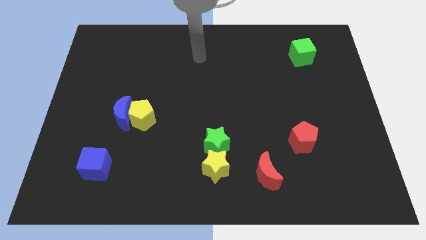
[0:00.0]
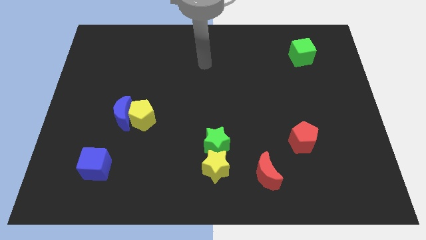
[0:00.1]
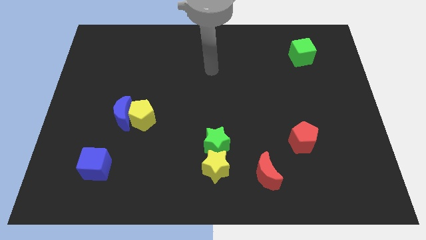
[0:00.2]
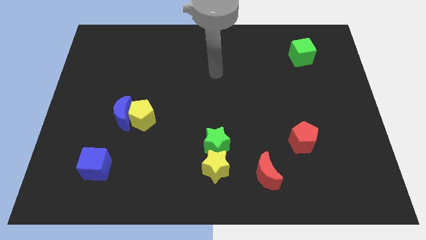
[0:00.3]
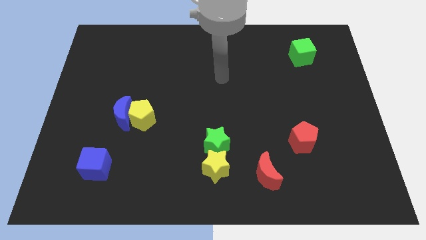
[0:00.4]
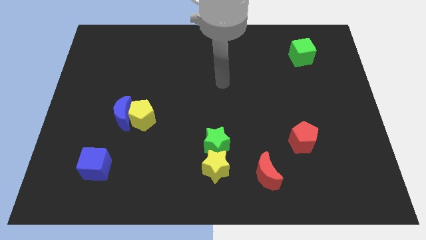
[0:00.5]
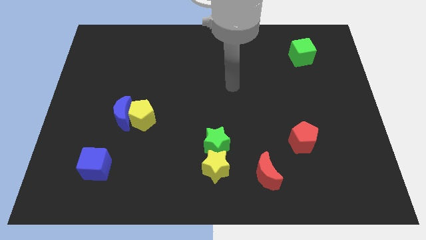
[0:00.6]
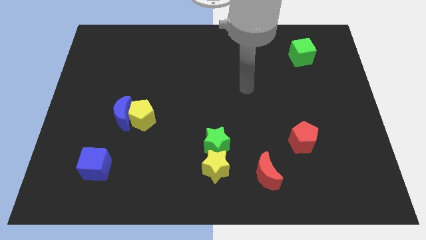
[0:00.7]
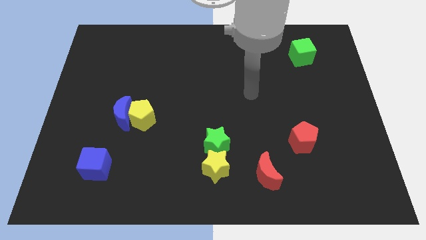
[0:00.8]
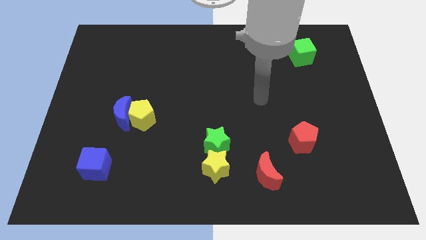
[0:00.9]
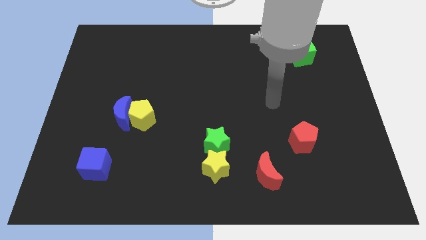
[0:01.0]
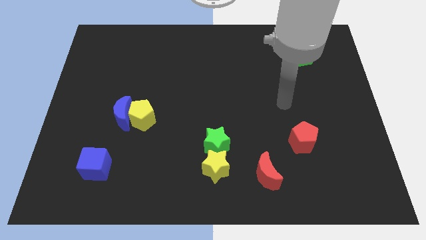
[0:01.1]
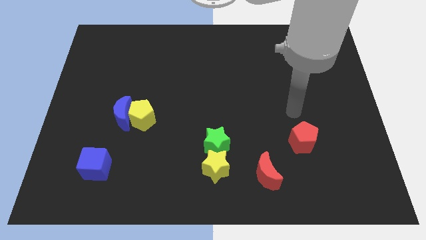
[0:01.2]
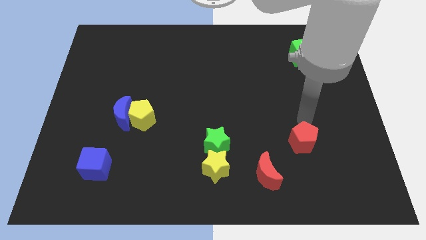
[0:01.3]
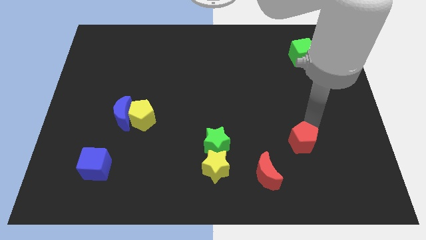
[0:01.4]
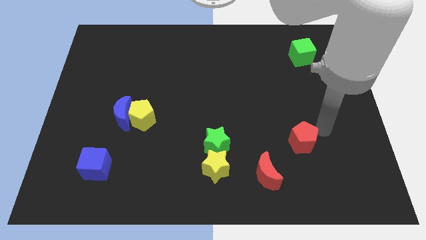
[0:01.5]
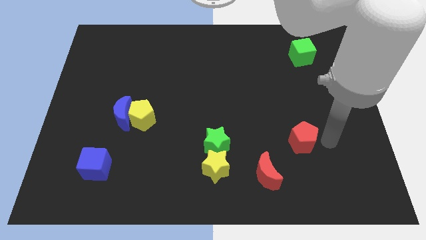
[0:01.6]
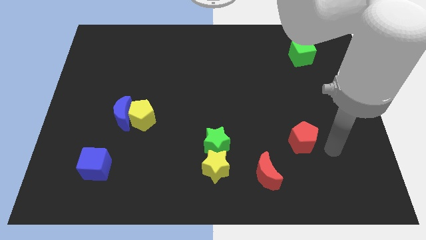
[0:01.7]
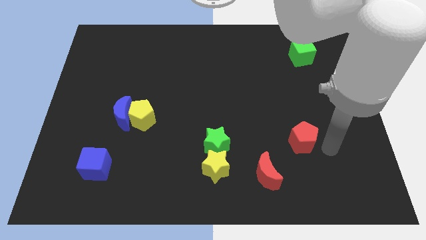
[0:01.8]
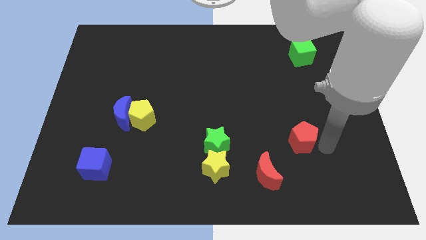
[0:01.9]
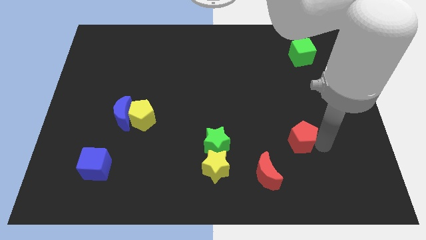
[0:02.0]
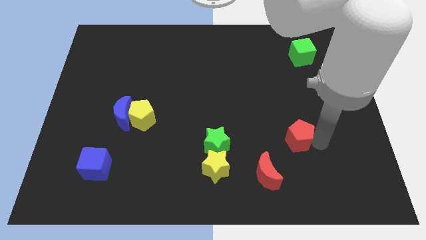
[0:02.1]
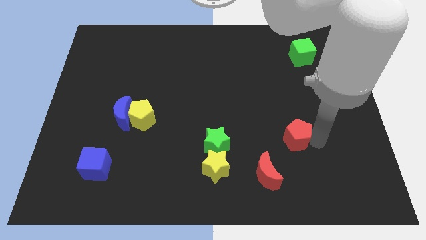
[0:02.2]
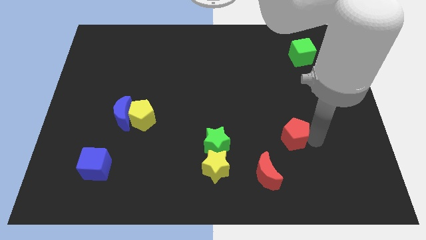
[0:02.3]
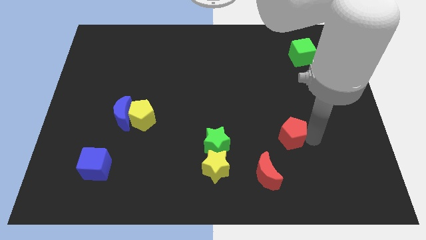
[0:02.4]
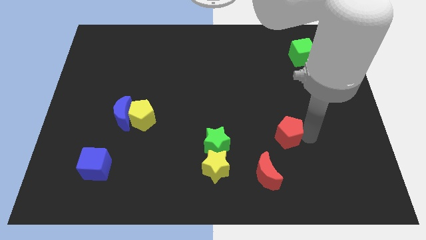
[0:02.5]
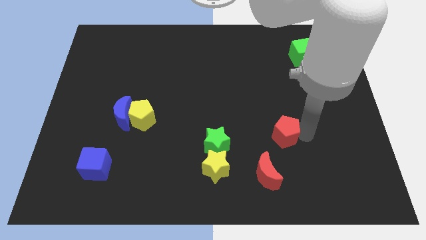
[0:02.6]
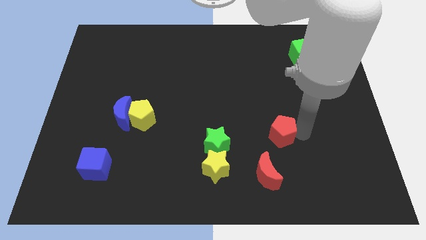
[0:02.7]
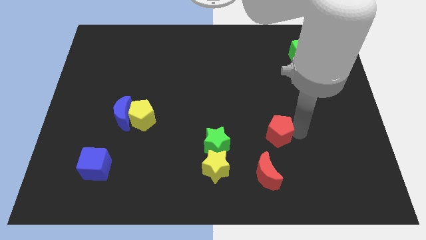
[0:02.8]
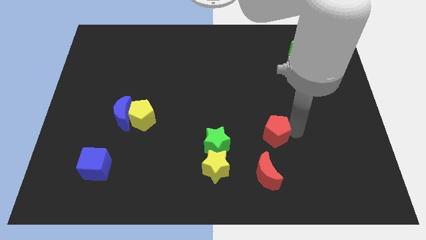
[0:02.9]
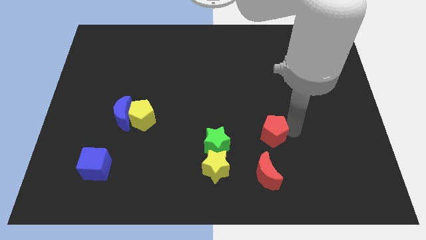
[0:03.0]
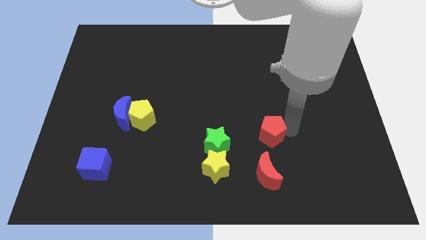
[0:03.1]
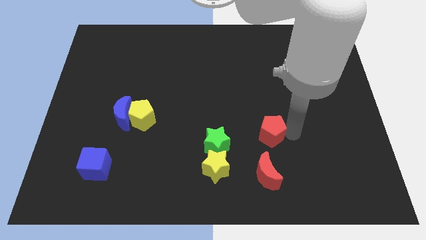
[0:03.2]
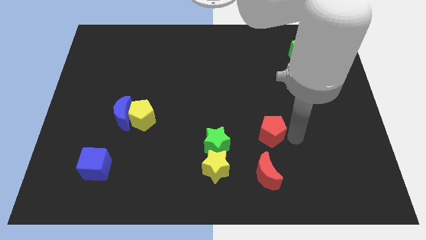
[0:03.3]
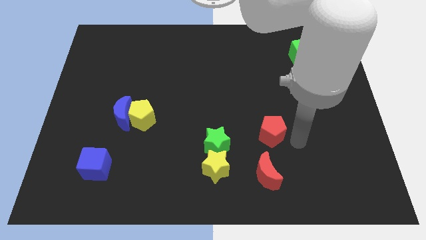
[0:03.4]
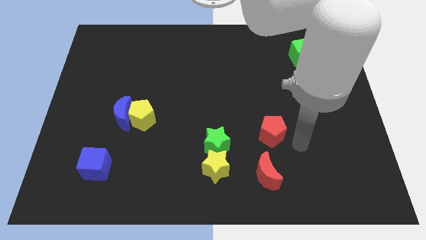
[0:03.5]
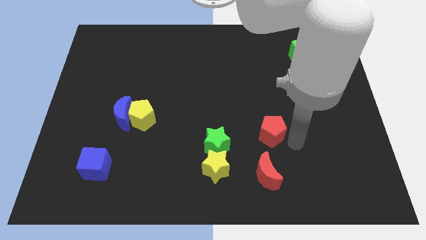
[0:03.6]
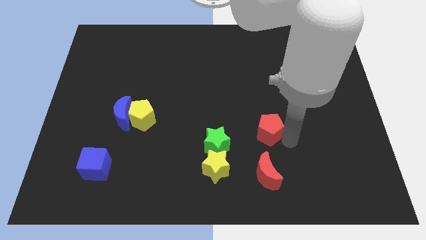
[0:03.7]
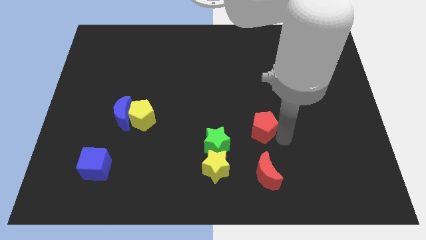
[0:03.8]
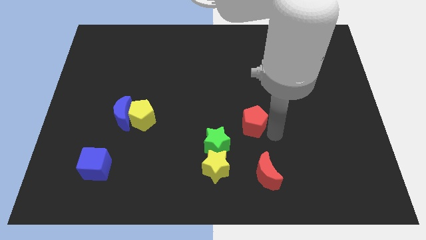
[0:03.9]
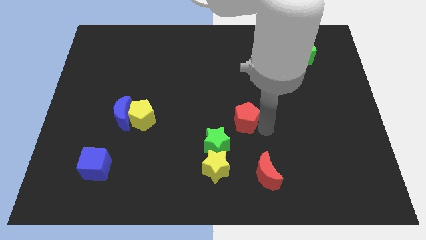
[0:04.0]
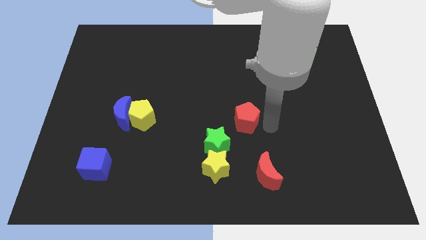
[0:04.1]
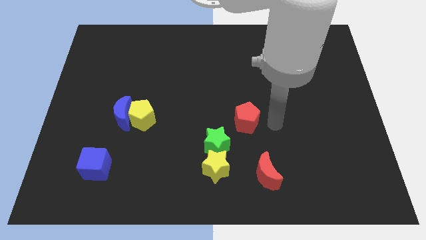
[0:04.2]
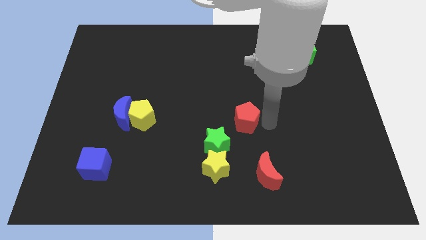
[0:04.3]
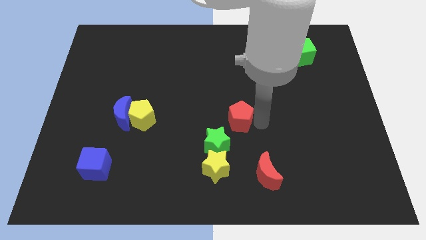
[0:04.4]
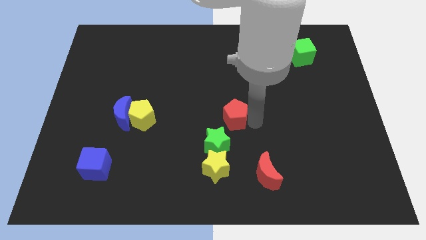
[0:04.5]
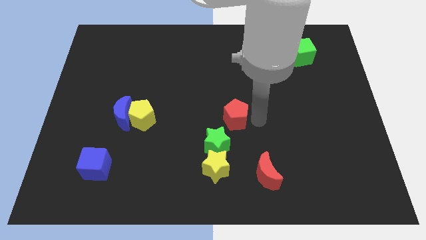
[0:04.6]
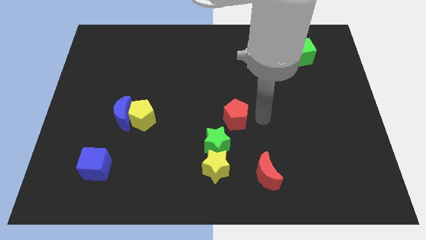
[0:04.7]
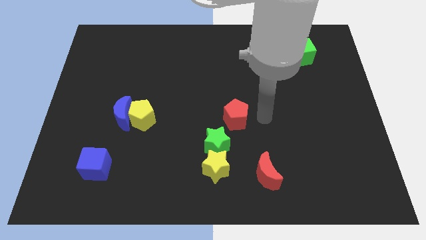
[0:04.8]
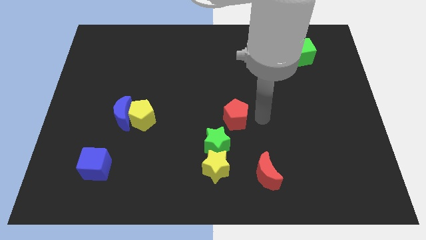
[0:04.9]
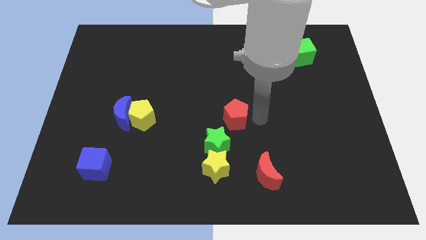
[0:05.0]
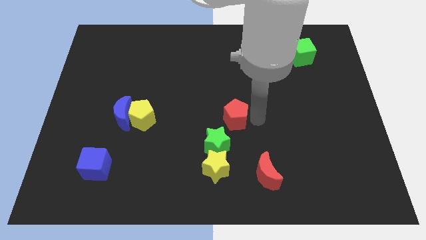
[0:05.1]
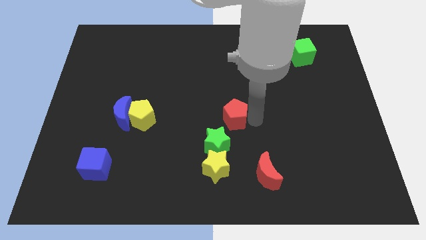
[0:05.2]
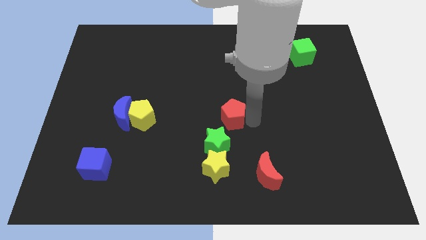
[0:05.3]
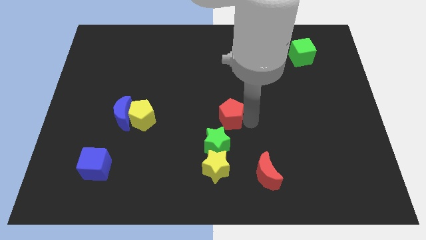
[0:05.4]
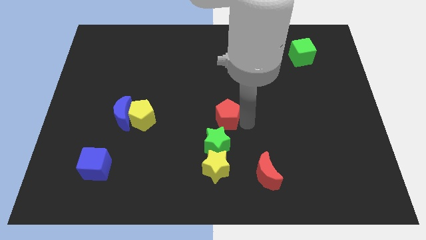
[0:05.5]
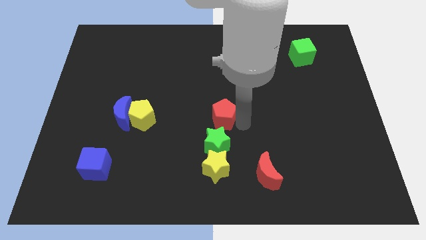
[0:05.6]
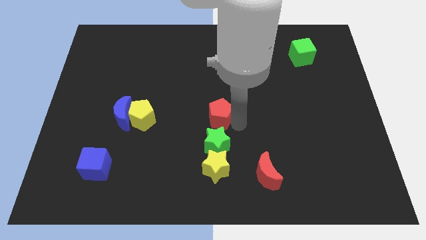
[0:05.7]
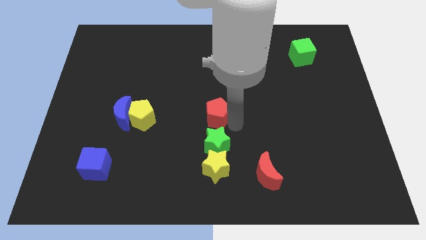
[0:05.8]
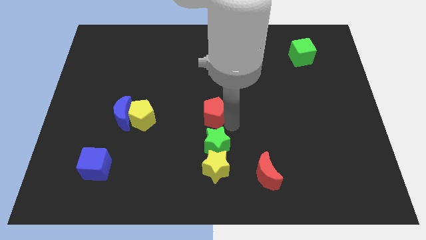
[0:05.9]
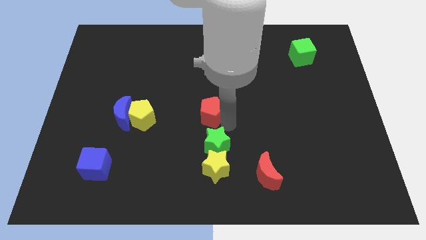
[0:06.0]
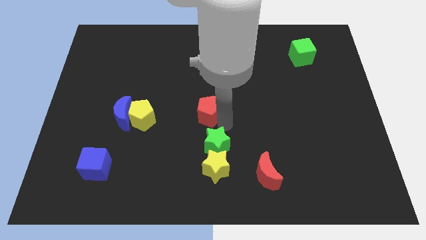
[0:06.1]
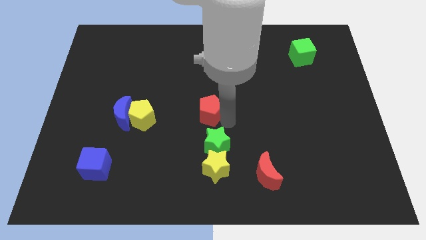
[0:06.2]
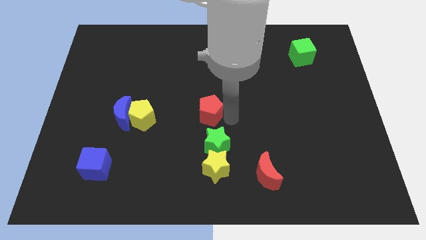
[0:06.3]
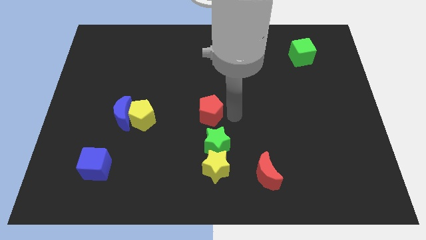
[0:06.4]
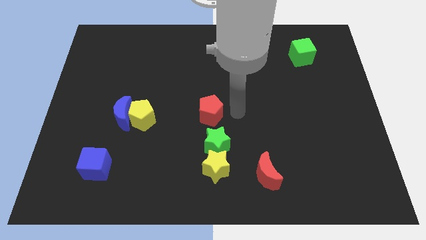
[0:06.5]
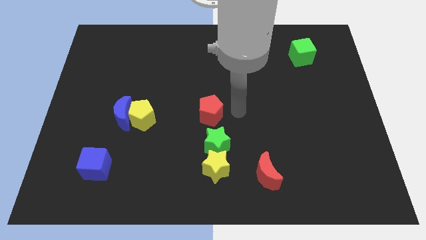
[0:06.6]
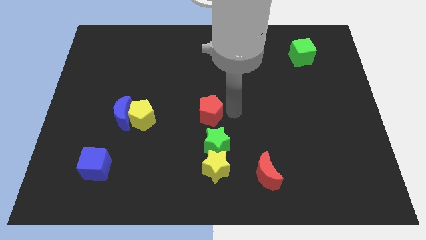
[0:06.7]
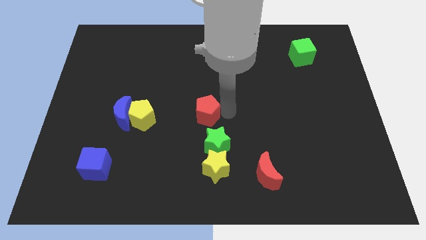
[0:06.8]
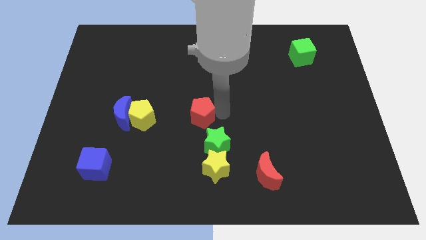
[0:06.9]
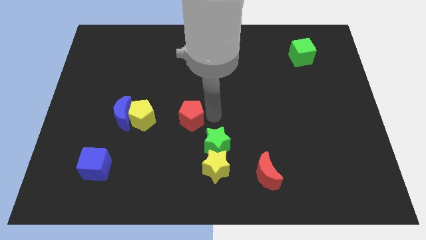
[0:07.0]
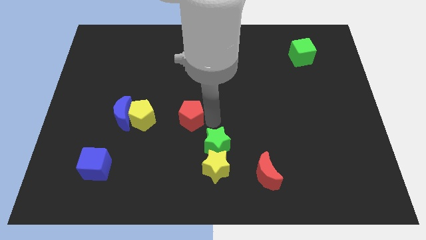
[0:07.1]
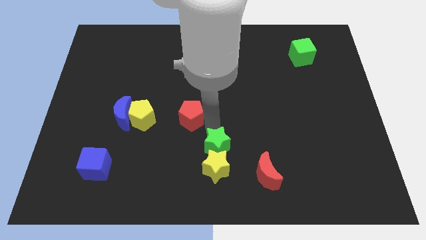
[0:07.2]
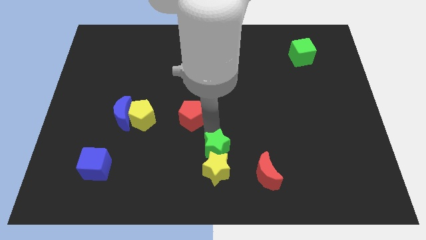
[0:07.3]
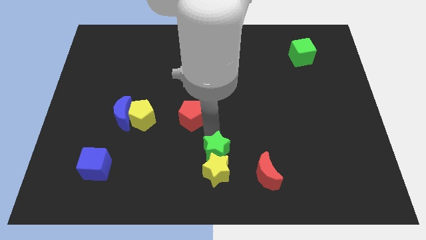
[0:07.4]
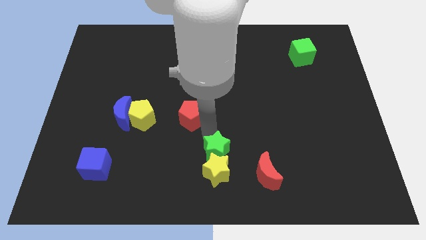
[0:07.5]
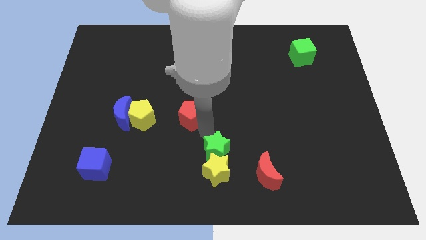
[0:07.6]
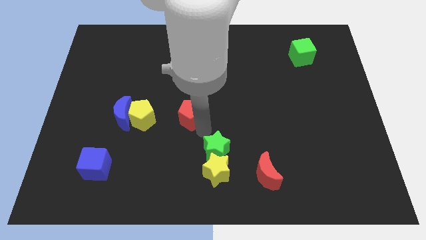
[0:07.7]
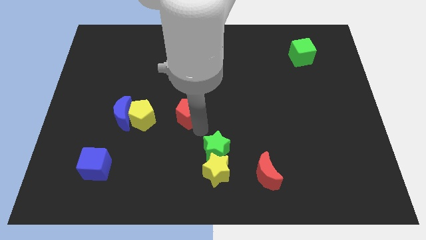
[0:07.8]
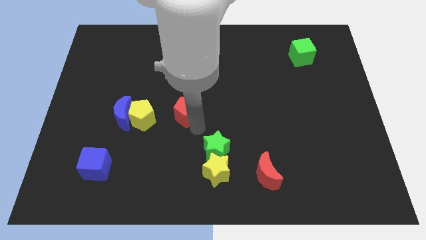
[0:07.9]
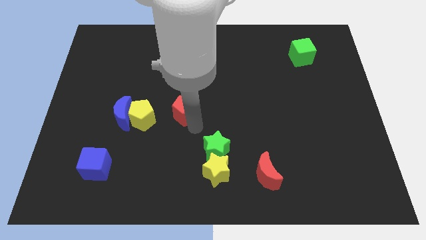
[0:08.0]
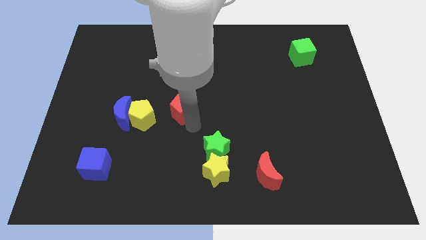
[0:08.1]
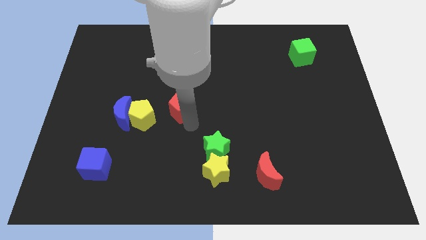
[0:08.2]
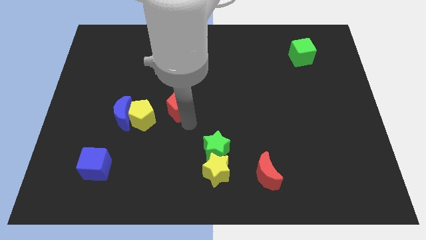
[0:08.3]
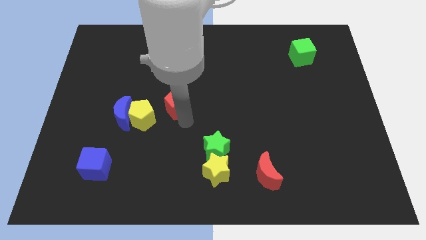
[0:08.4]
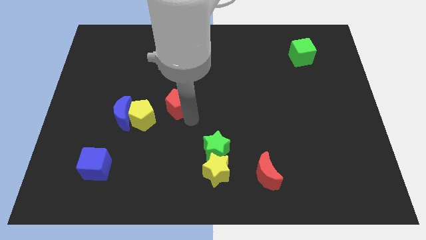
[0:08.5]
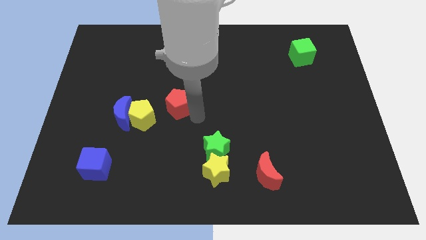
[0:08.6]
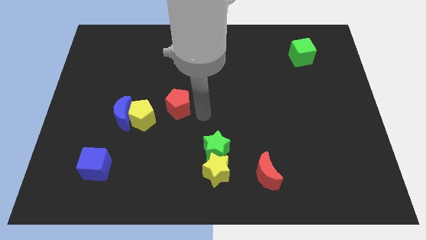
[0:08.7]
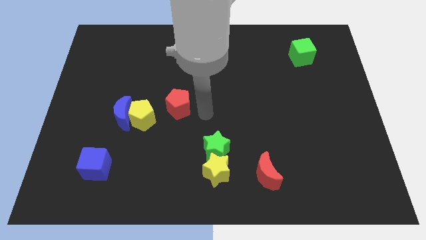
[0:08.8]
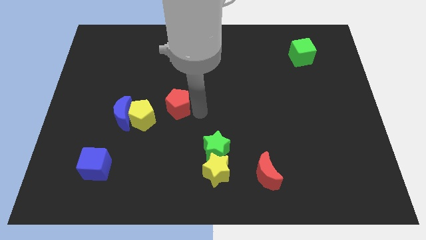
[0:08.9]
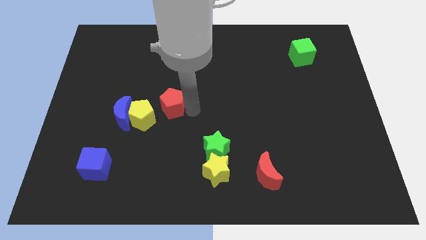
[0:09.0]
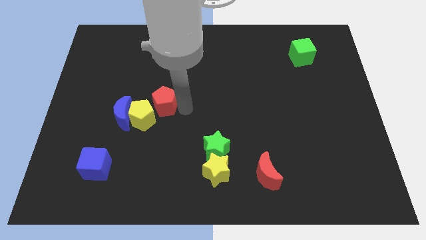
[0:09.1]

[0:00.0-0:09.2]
slide the red pentagon to the top right side of the blue moon
